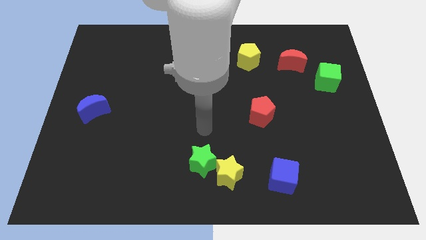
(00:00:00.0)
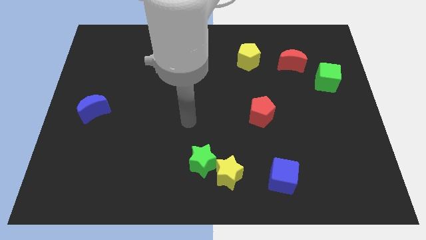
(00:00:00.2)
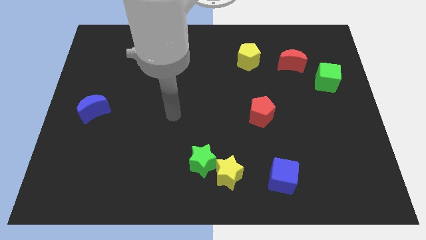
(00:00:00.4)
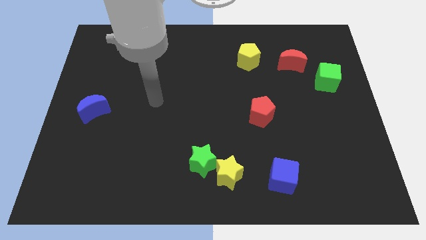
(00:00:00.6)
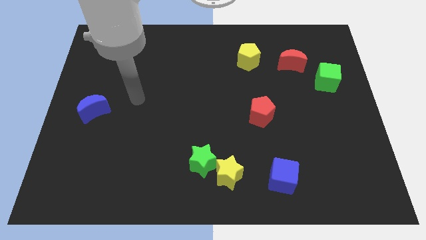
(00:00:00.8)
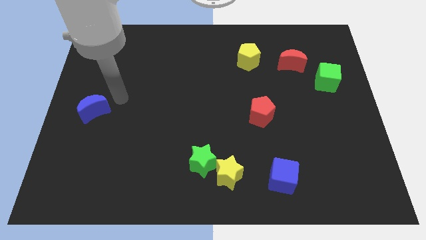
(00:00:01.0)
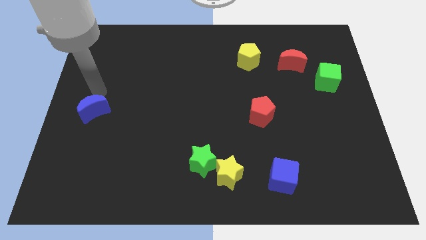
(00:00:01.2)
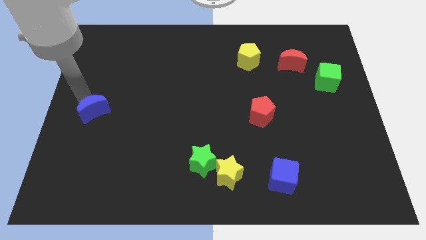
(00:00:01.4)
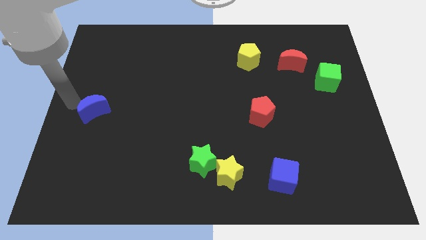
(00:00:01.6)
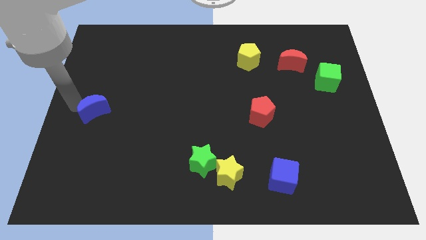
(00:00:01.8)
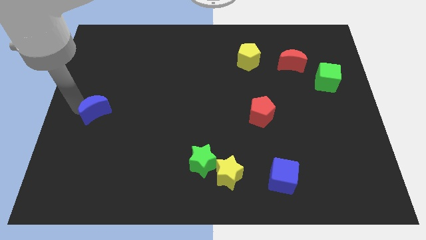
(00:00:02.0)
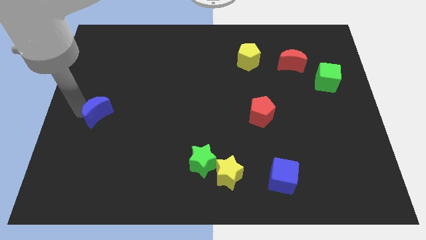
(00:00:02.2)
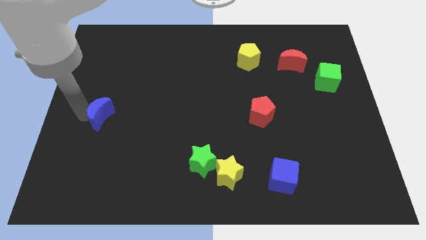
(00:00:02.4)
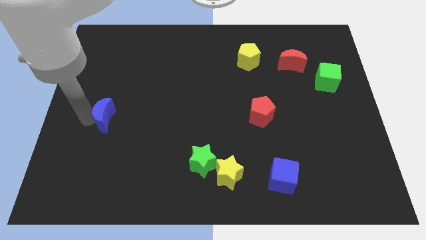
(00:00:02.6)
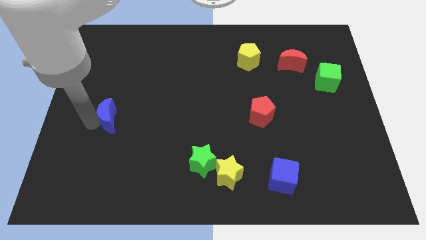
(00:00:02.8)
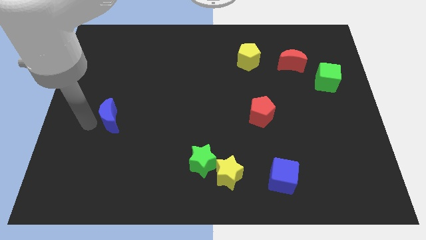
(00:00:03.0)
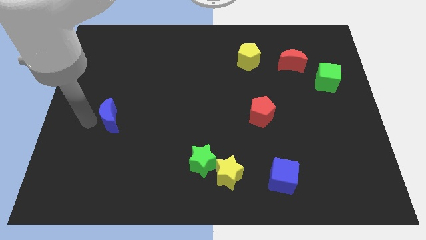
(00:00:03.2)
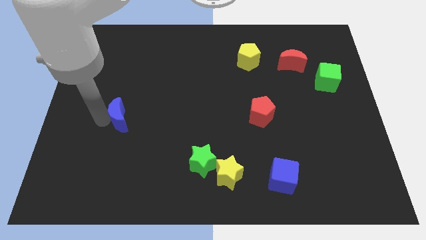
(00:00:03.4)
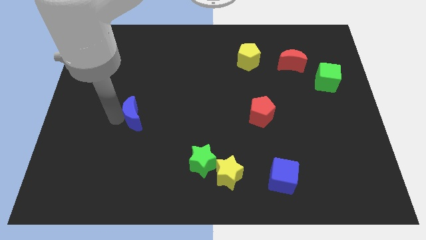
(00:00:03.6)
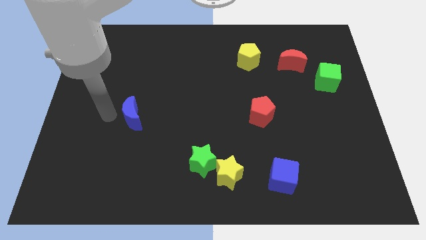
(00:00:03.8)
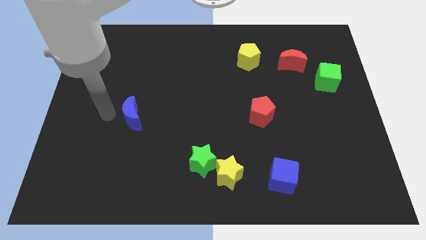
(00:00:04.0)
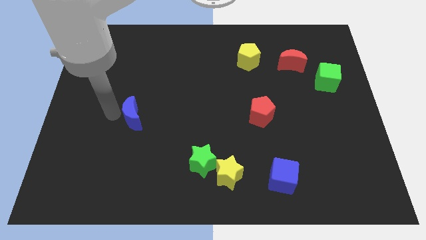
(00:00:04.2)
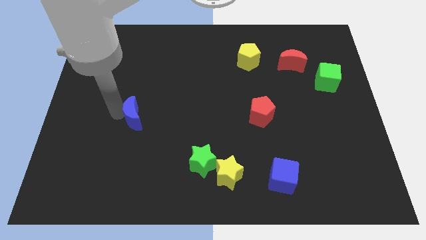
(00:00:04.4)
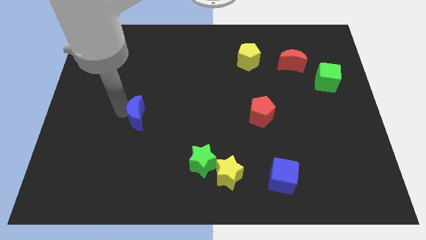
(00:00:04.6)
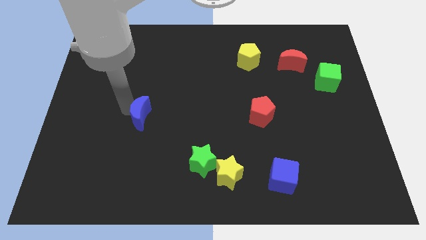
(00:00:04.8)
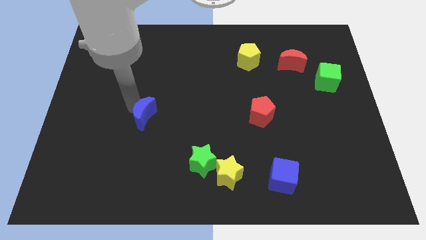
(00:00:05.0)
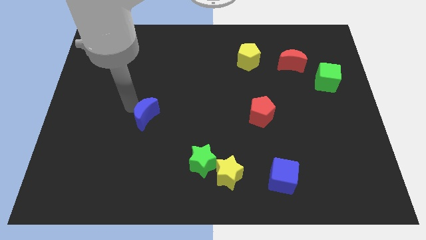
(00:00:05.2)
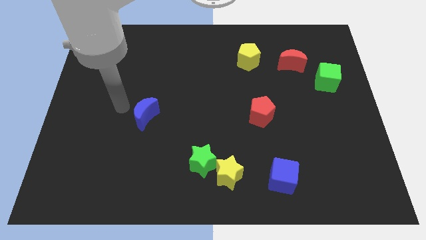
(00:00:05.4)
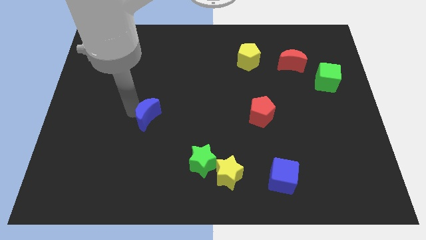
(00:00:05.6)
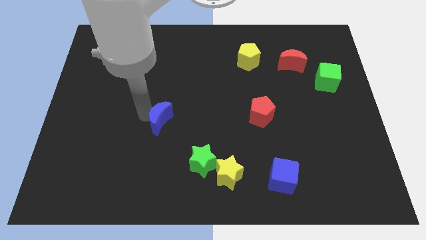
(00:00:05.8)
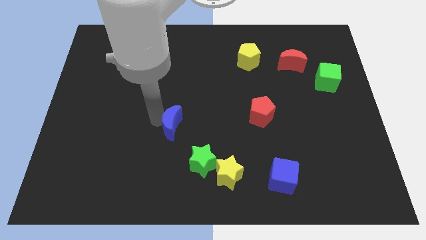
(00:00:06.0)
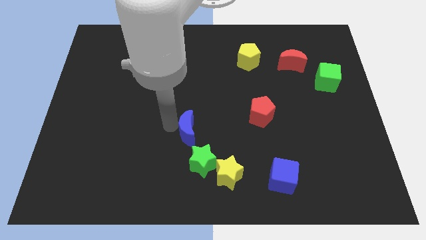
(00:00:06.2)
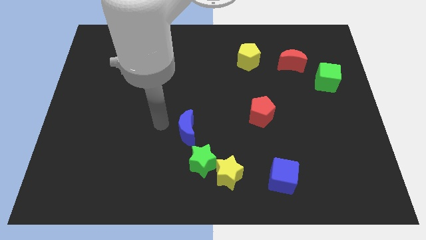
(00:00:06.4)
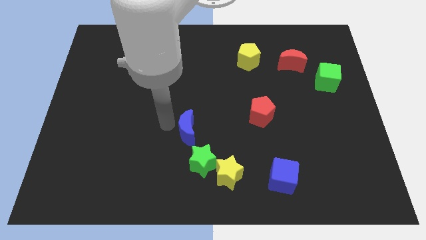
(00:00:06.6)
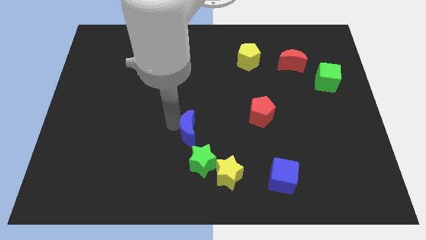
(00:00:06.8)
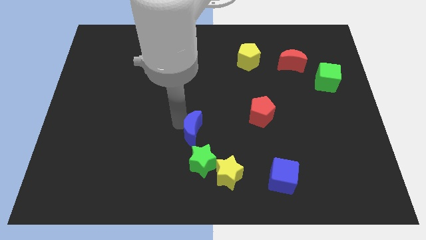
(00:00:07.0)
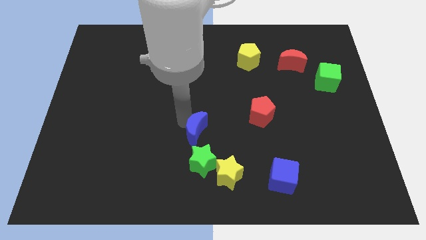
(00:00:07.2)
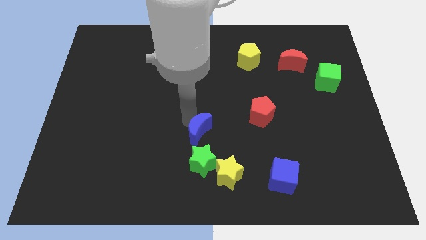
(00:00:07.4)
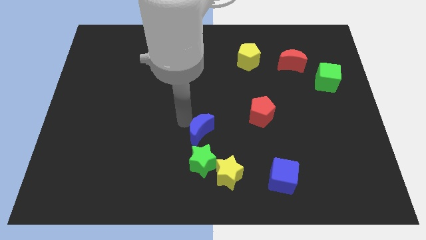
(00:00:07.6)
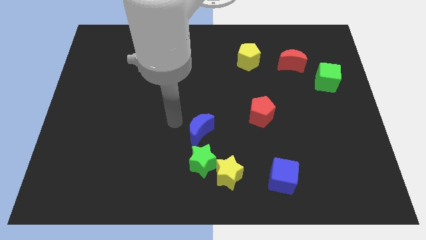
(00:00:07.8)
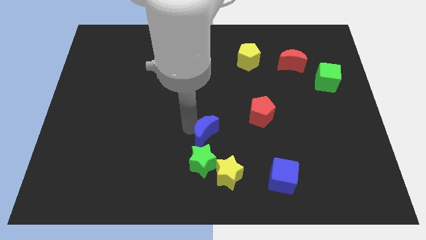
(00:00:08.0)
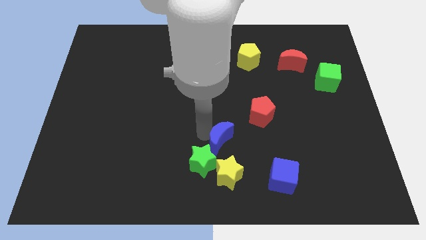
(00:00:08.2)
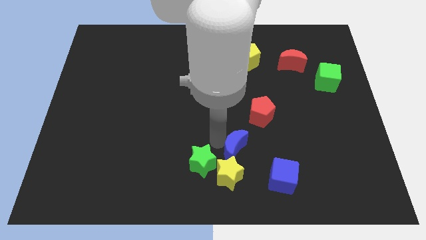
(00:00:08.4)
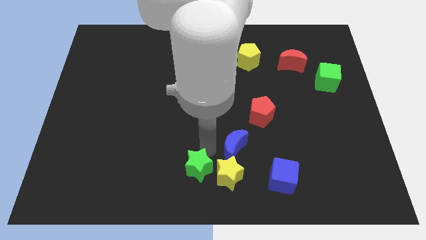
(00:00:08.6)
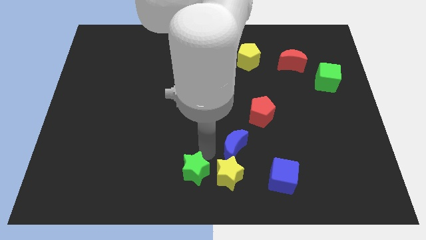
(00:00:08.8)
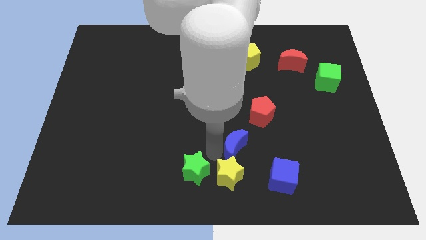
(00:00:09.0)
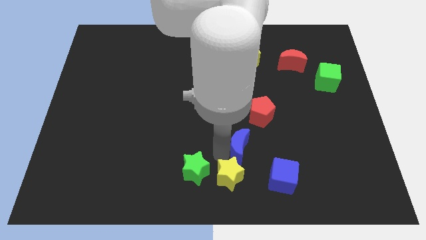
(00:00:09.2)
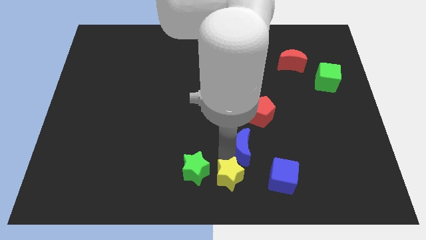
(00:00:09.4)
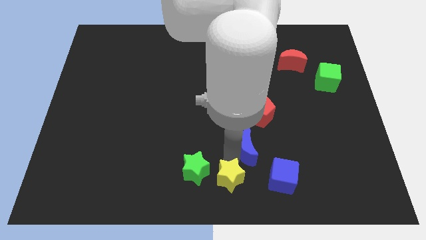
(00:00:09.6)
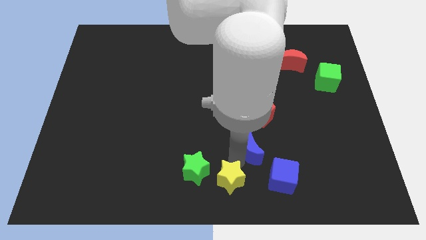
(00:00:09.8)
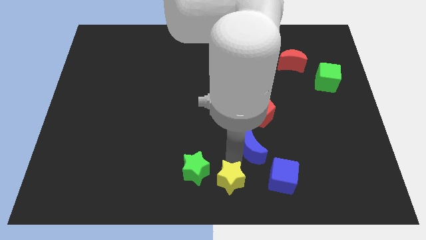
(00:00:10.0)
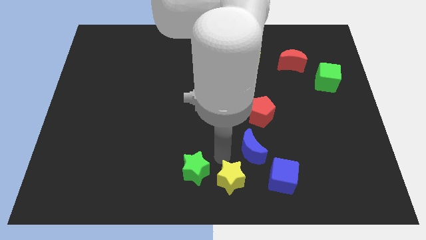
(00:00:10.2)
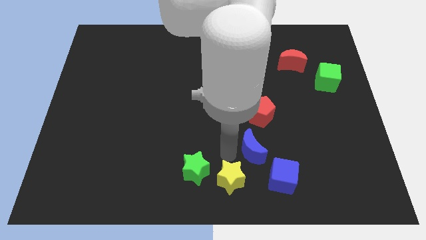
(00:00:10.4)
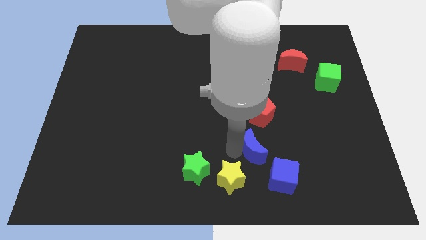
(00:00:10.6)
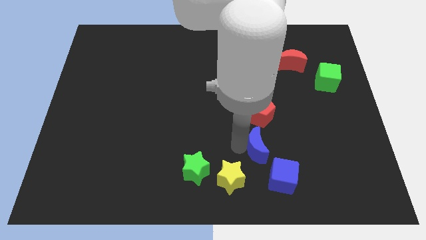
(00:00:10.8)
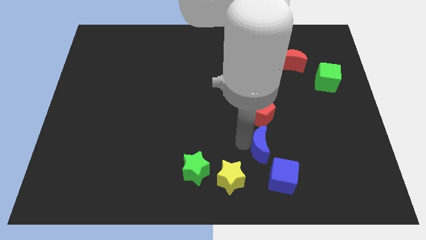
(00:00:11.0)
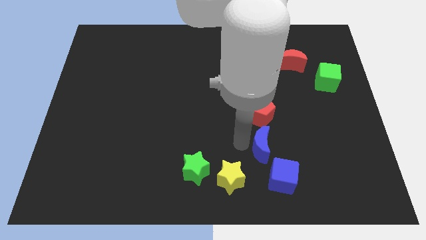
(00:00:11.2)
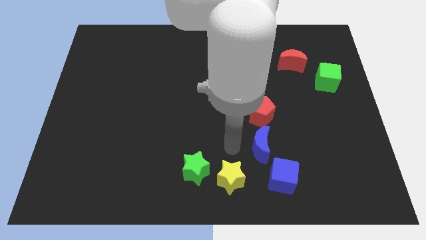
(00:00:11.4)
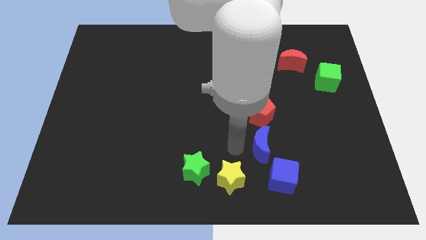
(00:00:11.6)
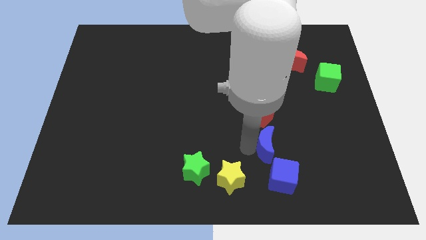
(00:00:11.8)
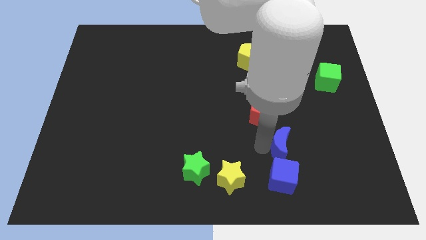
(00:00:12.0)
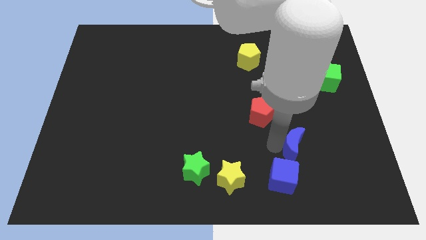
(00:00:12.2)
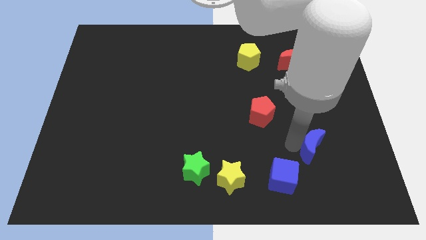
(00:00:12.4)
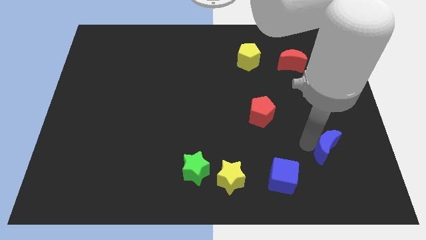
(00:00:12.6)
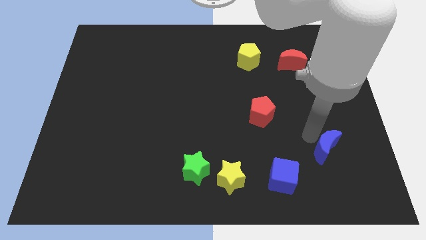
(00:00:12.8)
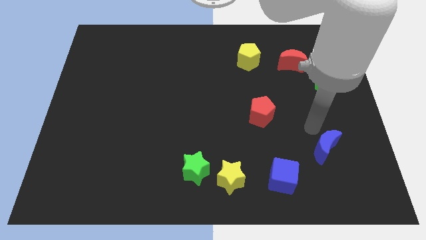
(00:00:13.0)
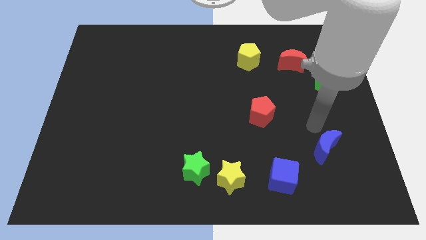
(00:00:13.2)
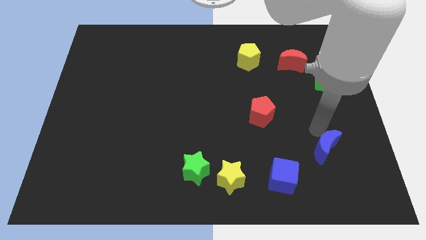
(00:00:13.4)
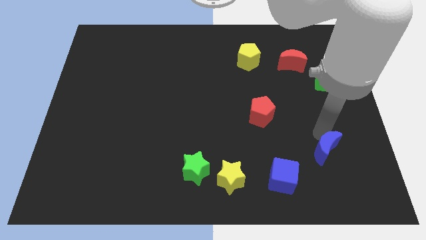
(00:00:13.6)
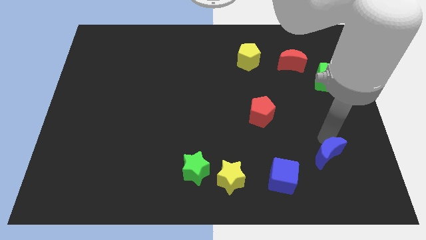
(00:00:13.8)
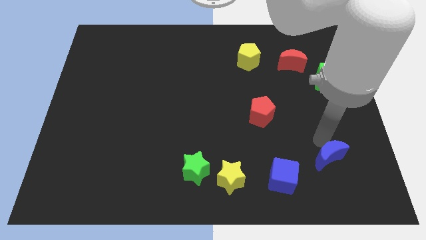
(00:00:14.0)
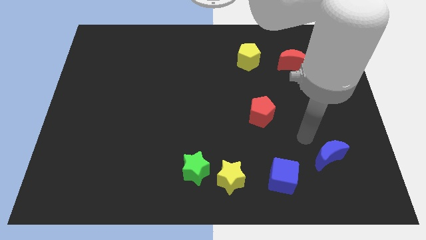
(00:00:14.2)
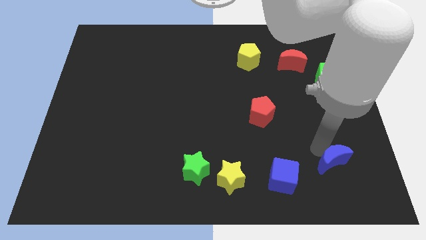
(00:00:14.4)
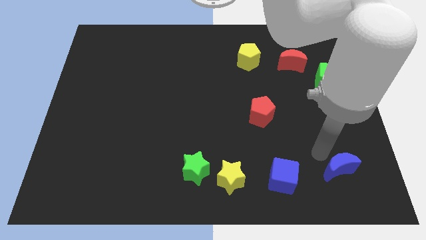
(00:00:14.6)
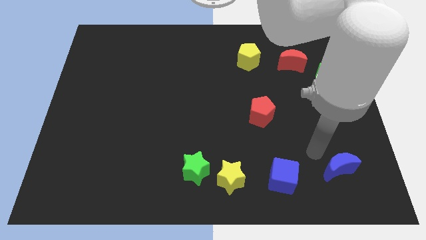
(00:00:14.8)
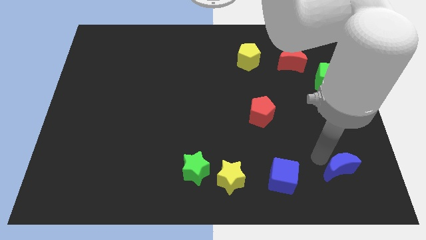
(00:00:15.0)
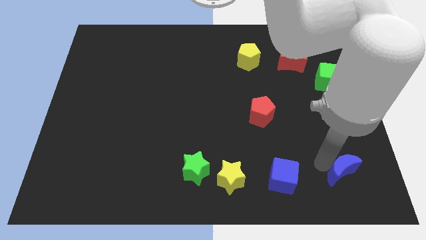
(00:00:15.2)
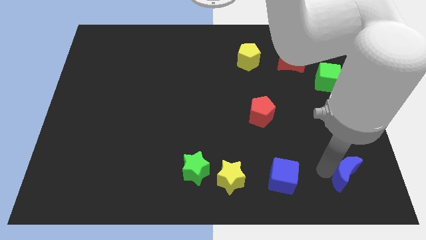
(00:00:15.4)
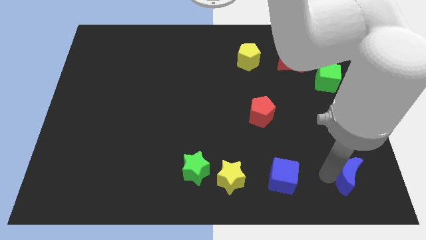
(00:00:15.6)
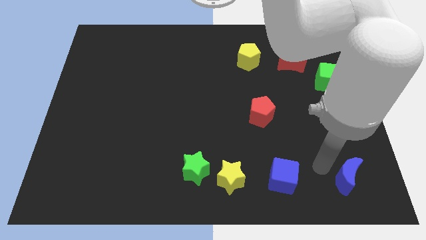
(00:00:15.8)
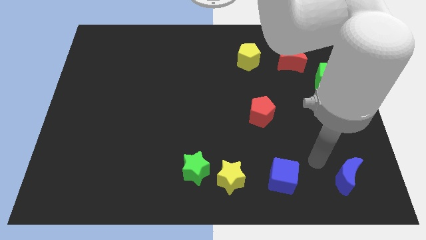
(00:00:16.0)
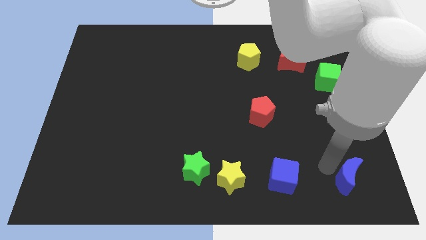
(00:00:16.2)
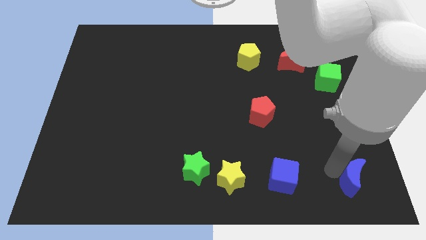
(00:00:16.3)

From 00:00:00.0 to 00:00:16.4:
slide the blue moon to the bottom right of the board
